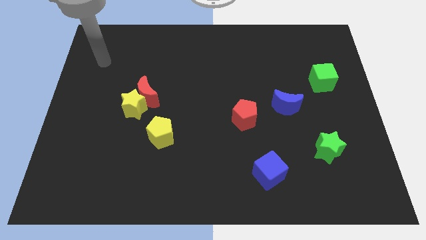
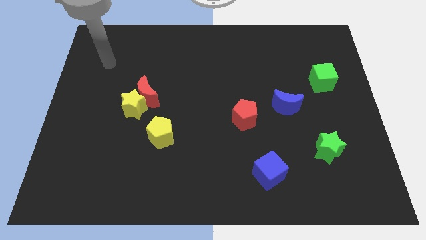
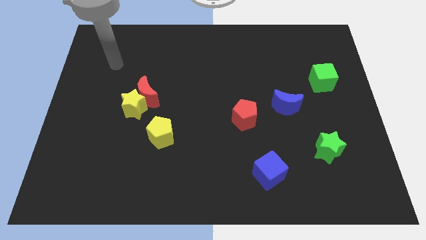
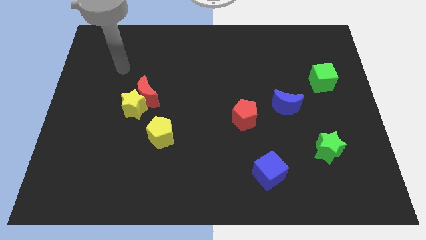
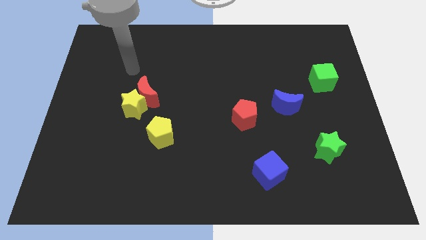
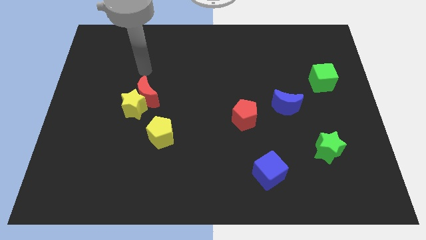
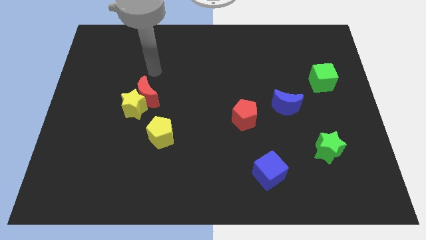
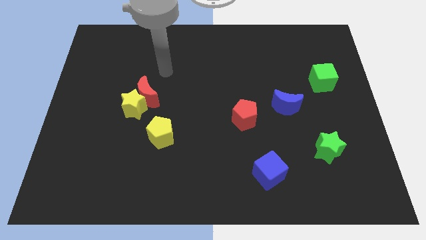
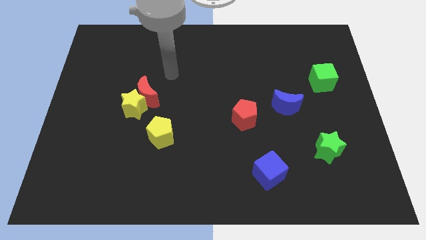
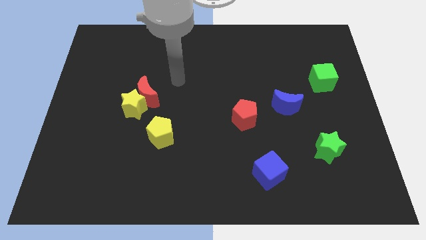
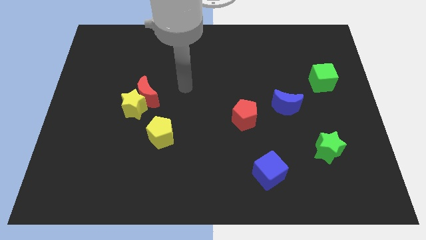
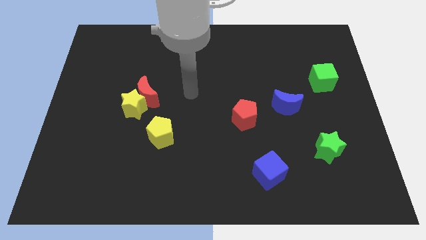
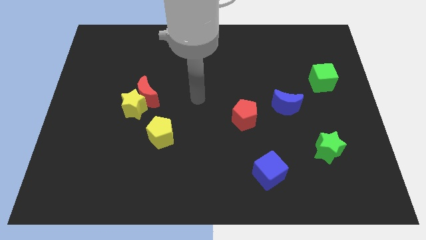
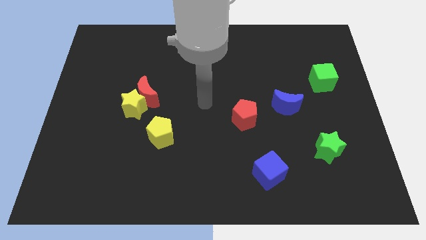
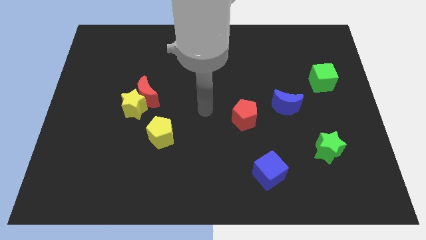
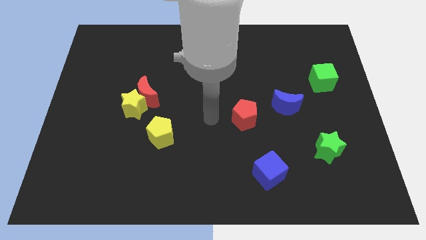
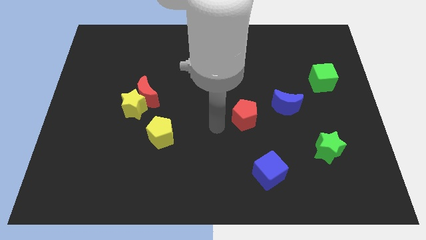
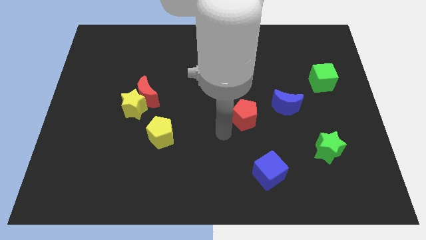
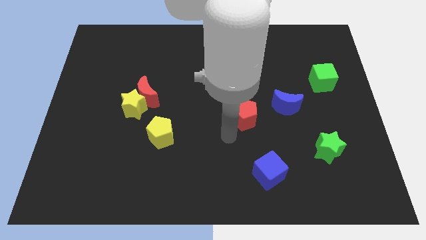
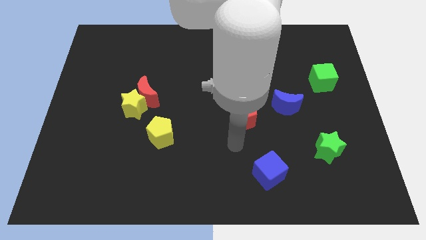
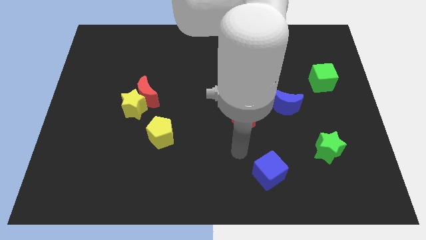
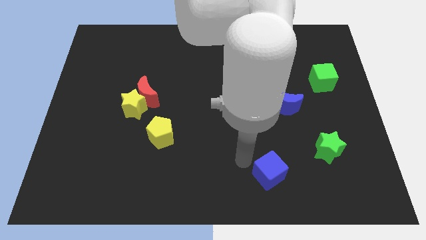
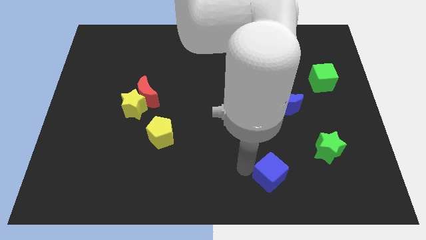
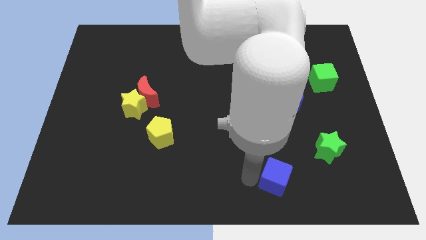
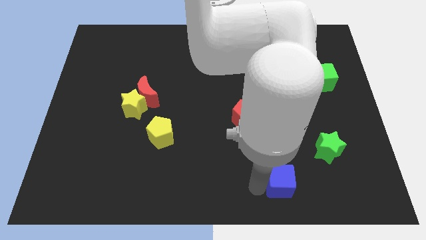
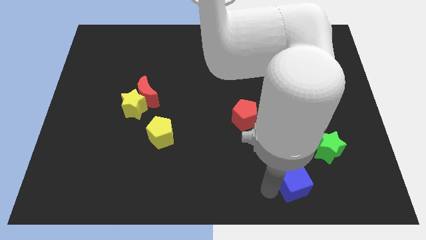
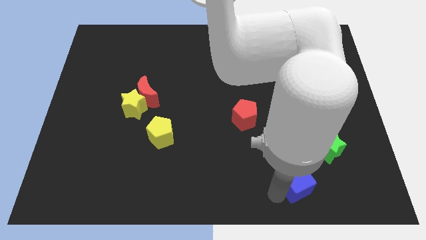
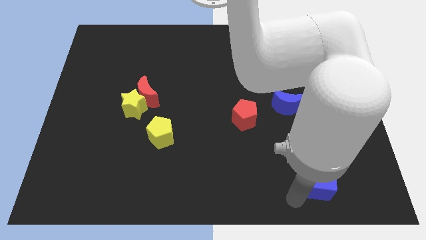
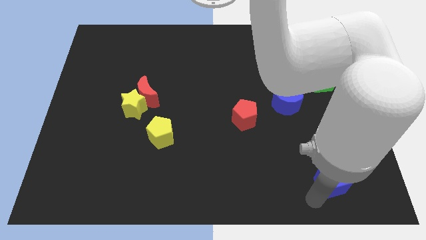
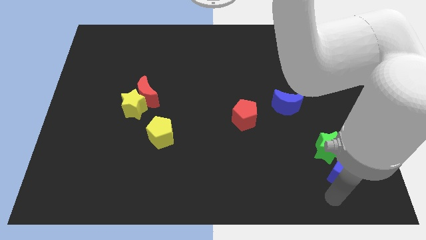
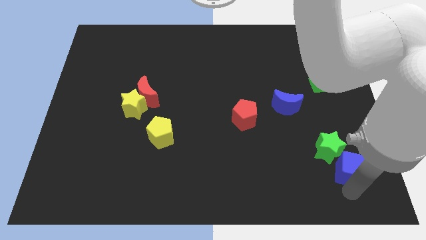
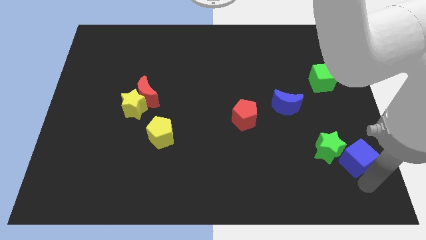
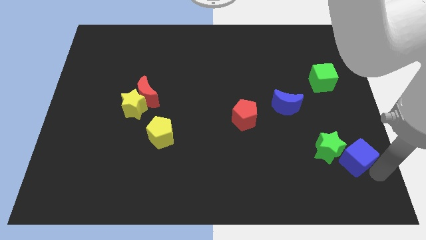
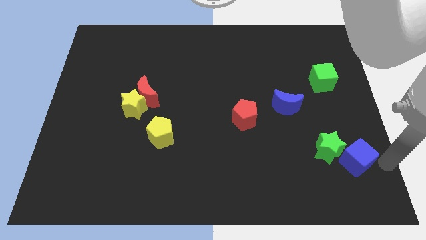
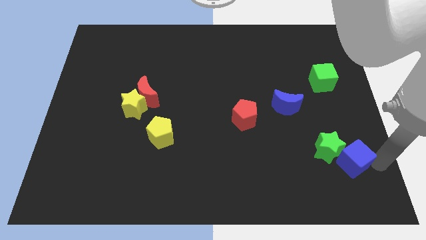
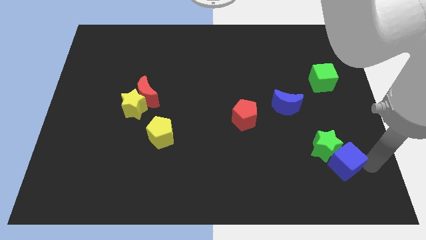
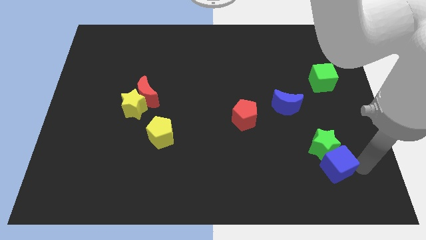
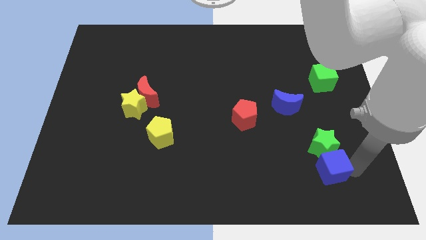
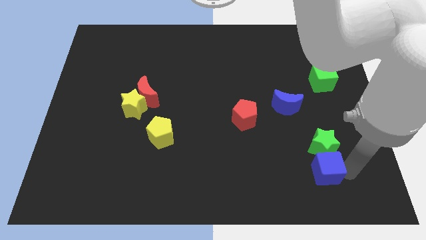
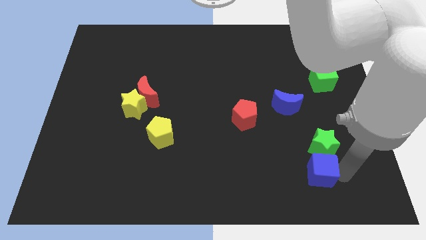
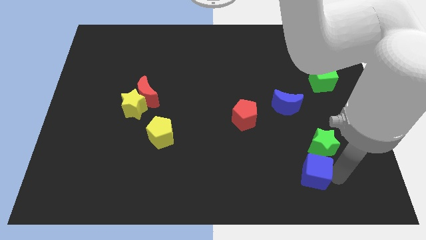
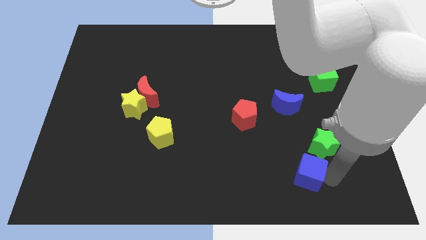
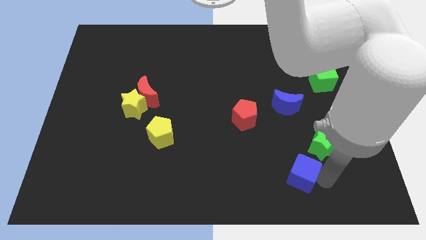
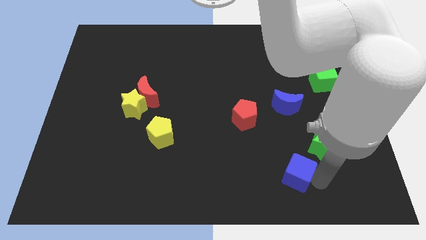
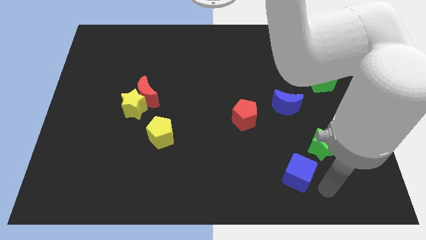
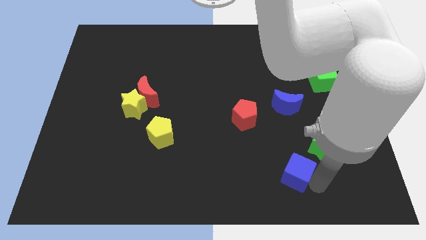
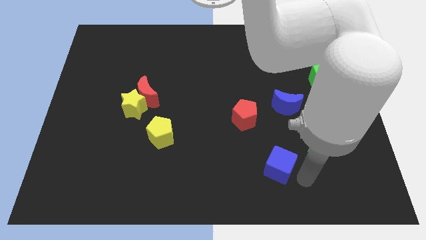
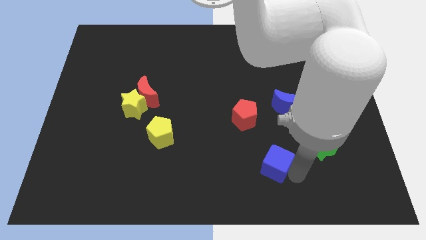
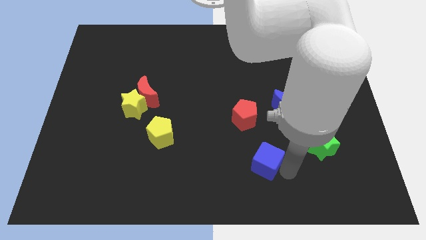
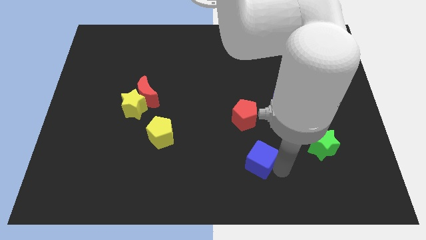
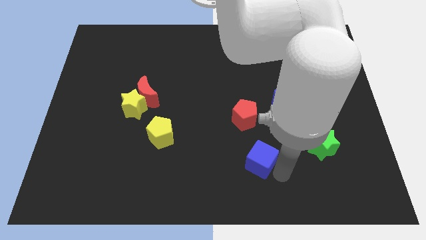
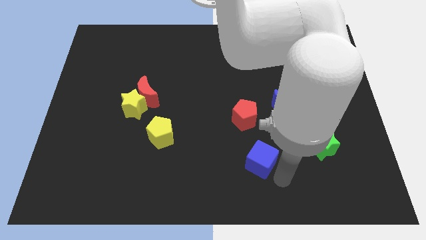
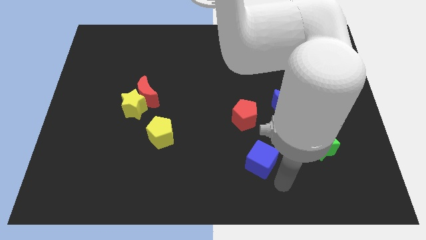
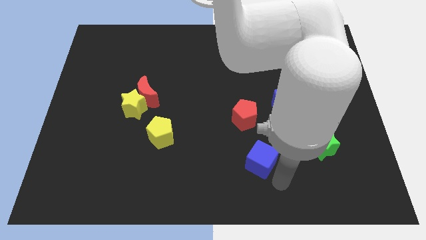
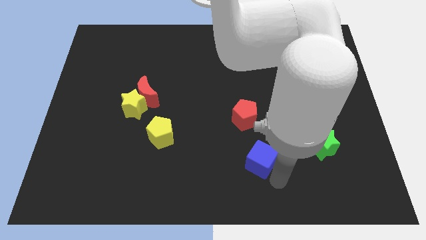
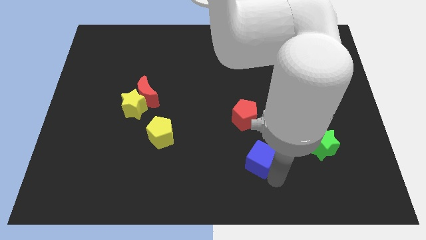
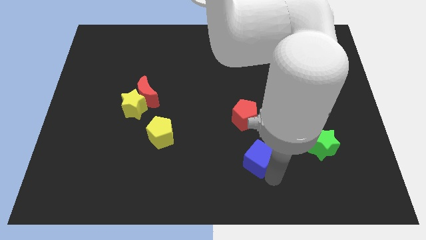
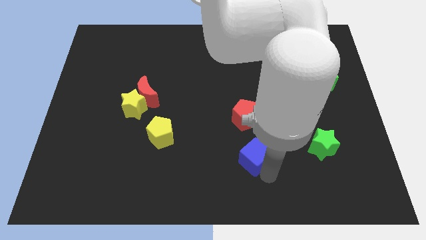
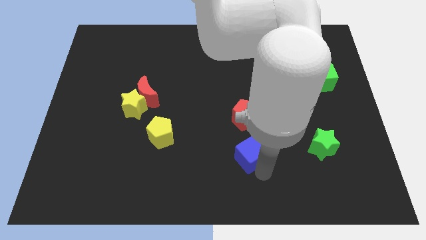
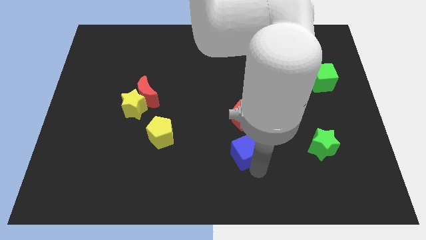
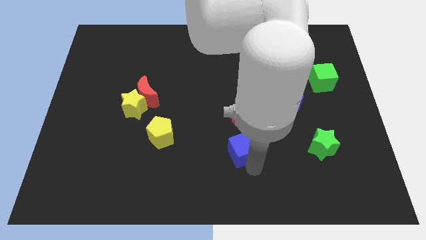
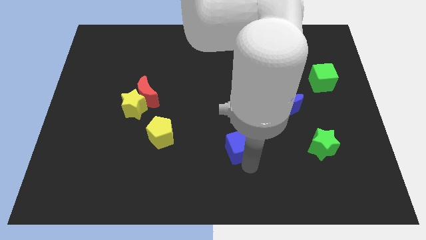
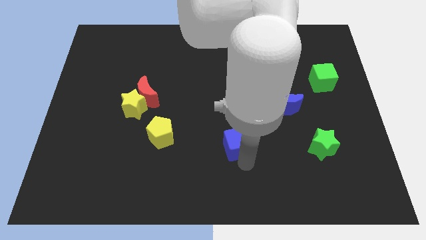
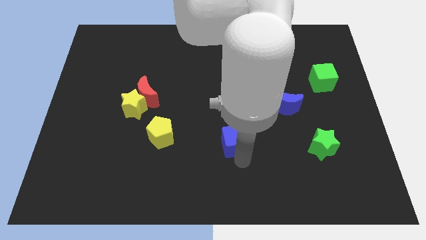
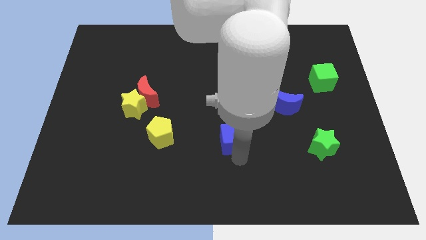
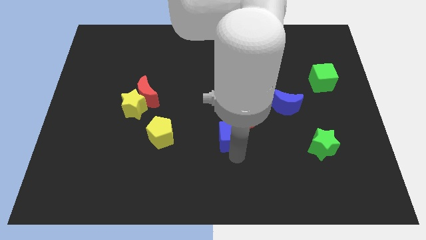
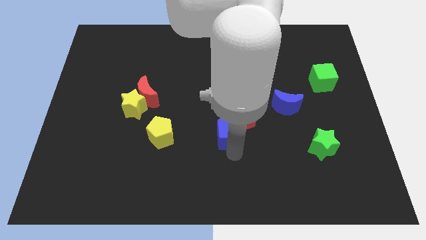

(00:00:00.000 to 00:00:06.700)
push the blue cube close to the red pentagon
